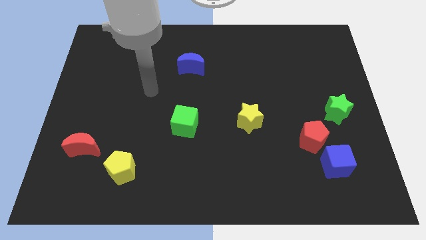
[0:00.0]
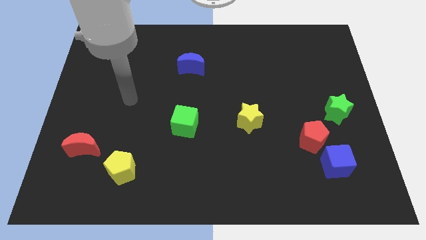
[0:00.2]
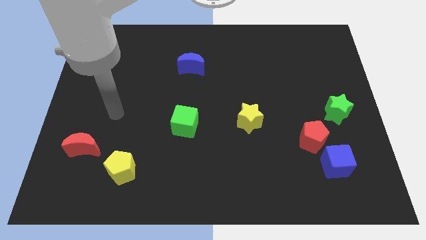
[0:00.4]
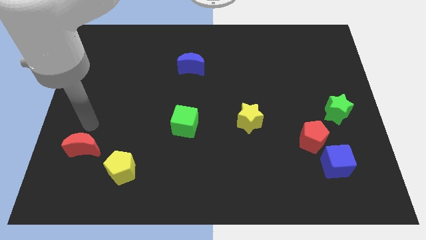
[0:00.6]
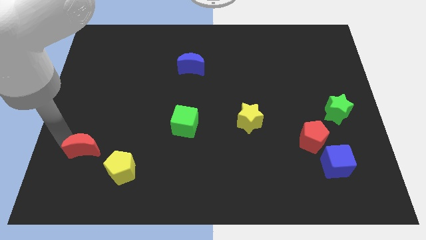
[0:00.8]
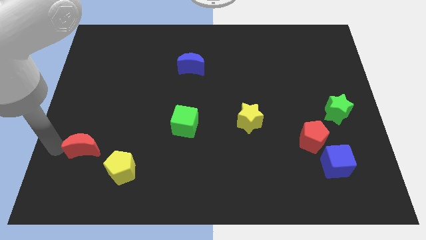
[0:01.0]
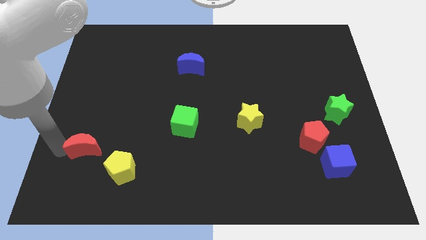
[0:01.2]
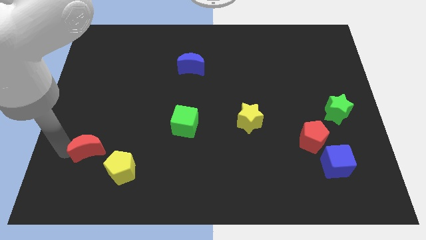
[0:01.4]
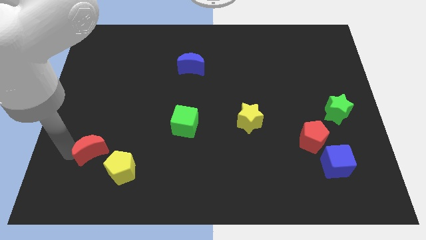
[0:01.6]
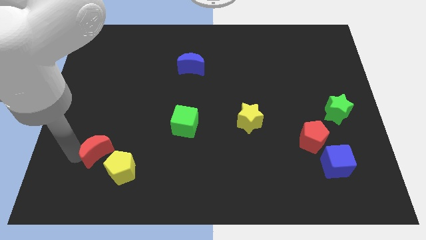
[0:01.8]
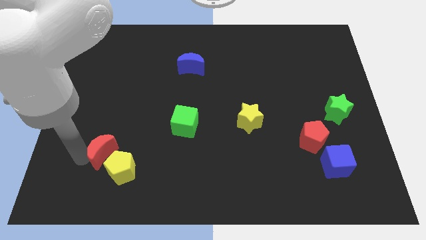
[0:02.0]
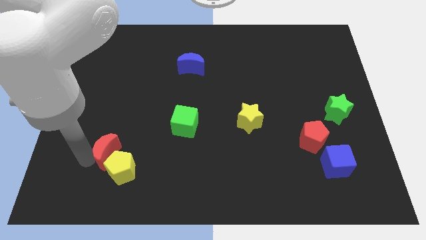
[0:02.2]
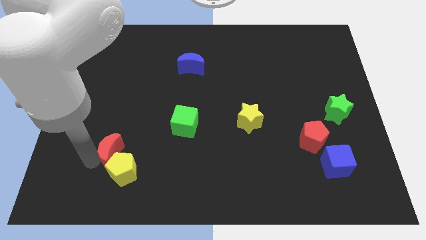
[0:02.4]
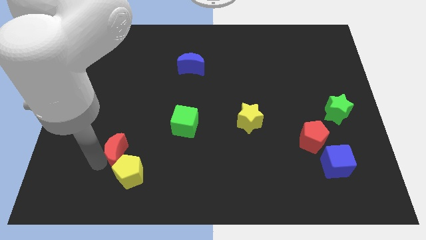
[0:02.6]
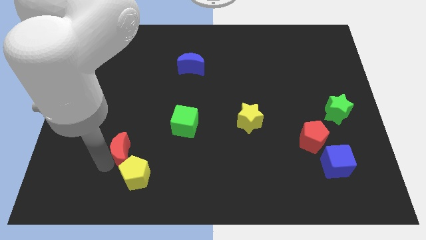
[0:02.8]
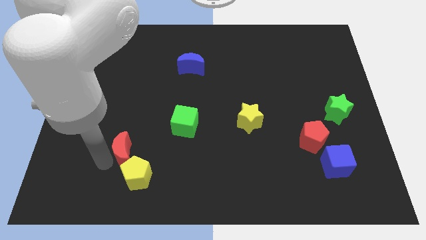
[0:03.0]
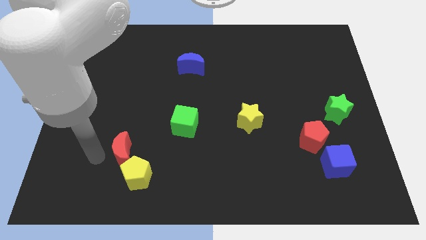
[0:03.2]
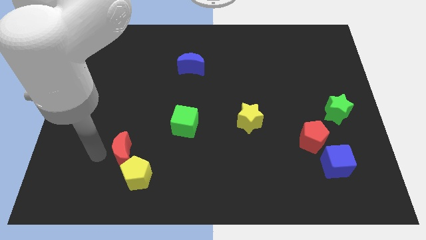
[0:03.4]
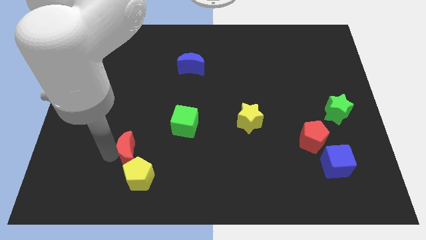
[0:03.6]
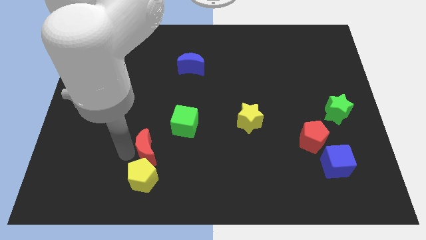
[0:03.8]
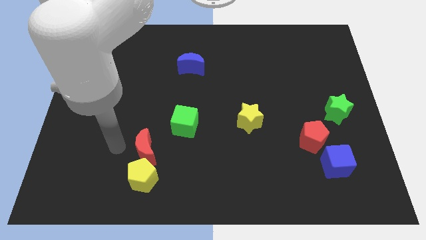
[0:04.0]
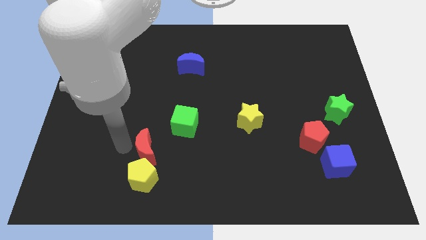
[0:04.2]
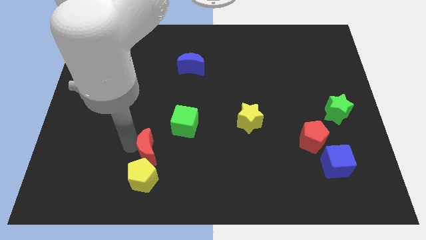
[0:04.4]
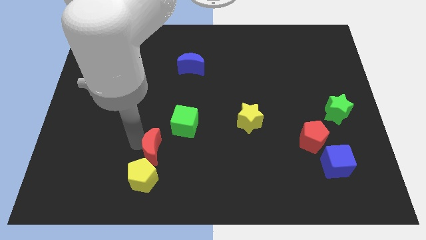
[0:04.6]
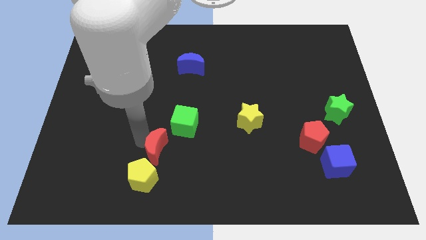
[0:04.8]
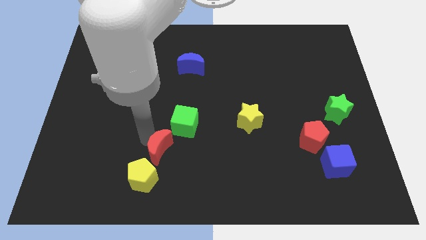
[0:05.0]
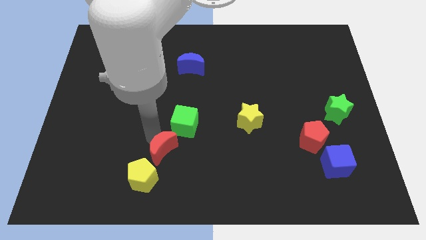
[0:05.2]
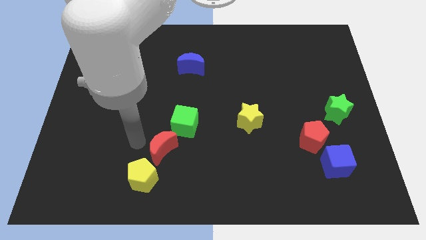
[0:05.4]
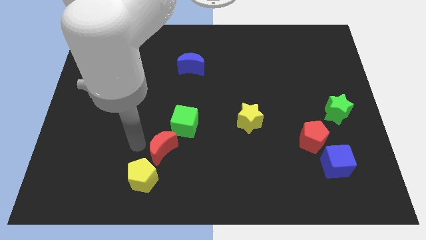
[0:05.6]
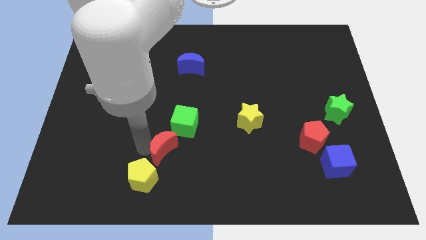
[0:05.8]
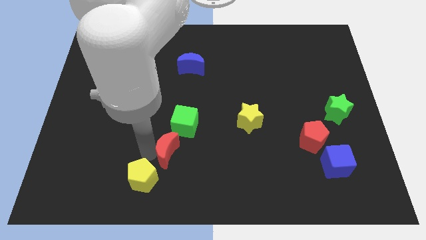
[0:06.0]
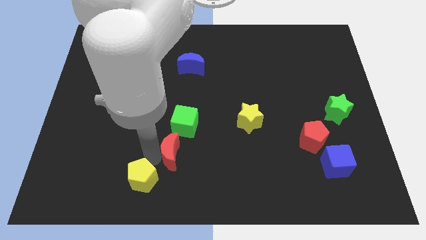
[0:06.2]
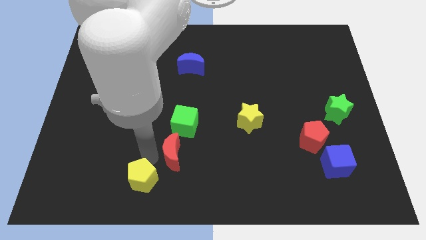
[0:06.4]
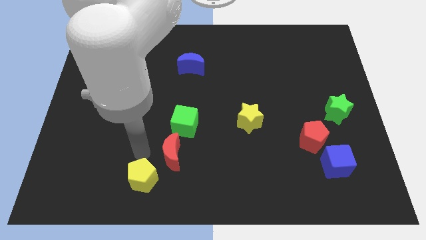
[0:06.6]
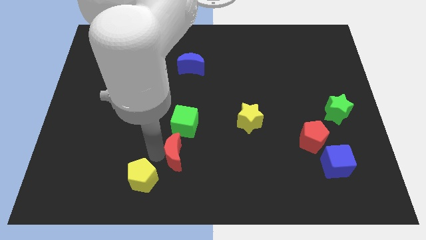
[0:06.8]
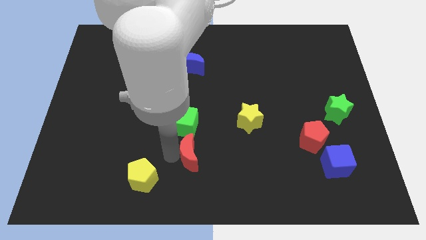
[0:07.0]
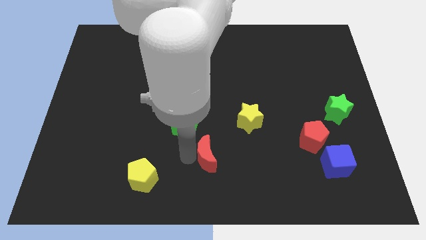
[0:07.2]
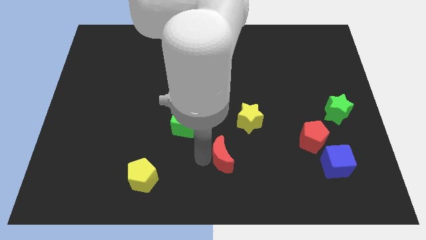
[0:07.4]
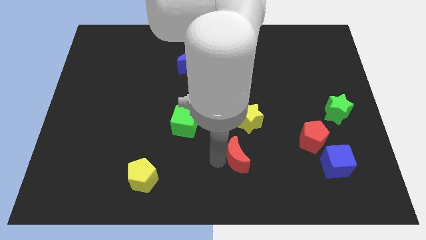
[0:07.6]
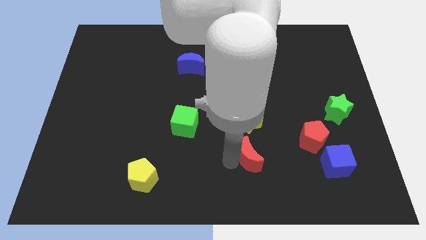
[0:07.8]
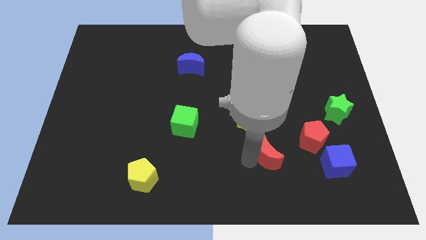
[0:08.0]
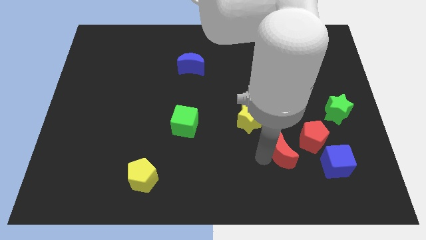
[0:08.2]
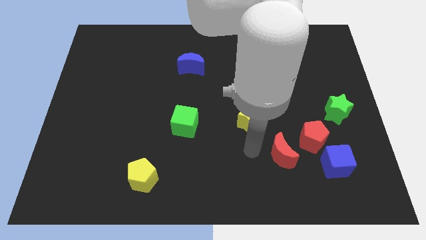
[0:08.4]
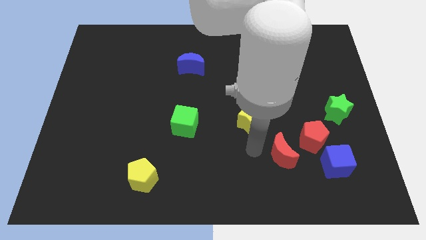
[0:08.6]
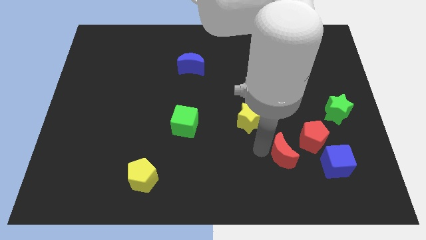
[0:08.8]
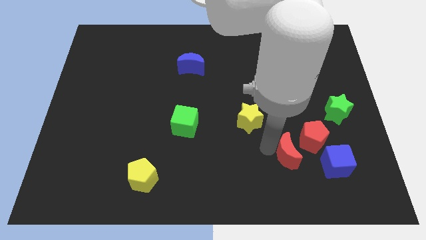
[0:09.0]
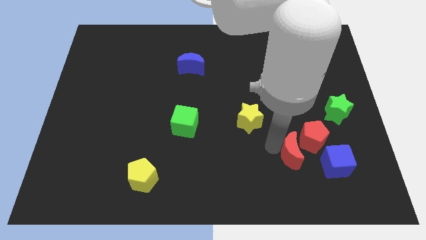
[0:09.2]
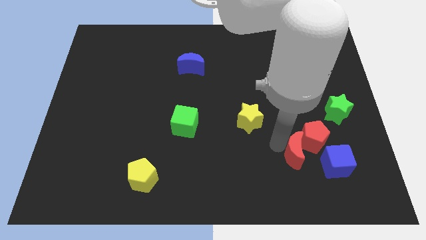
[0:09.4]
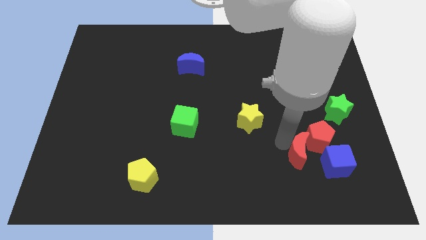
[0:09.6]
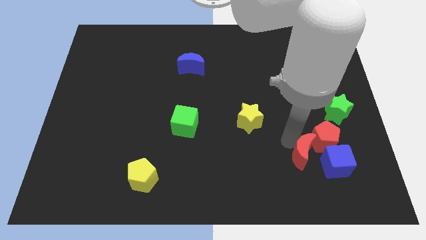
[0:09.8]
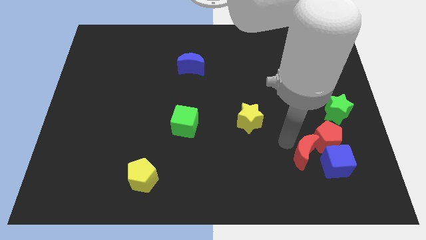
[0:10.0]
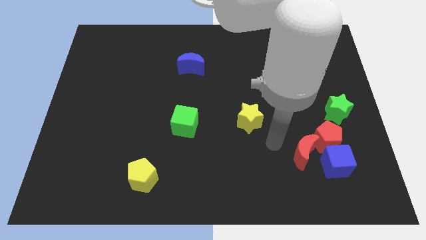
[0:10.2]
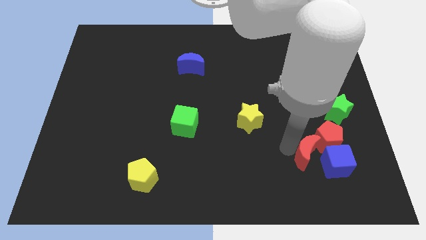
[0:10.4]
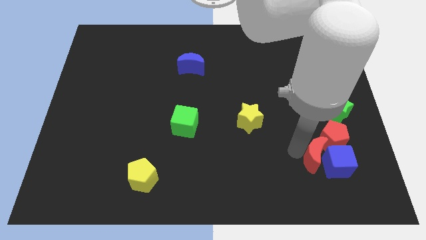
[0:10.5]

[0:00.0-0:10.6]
move the red moon next to the blue cube

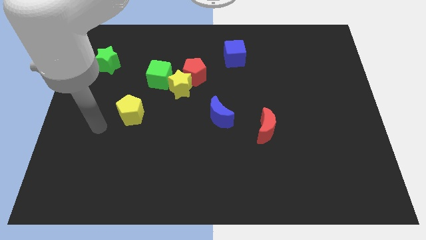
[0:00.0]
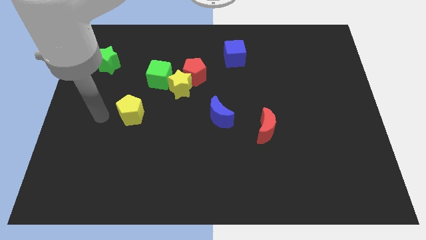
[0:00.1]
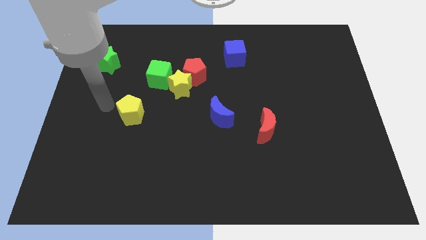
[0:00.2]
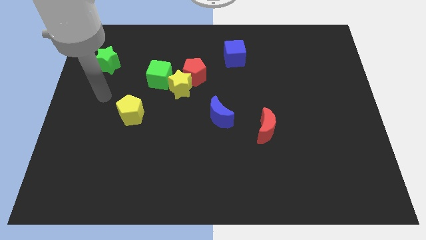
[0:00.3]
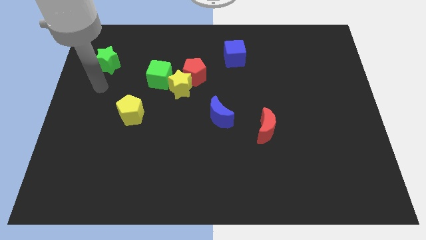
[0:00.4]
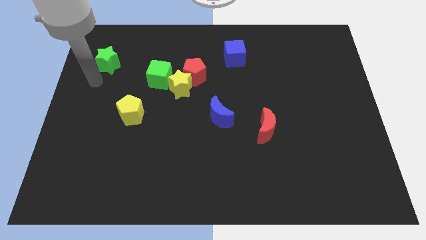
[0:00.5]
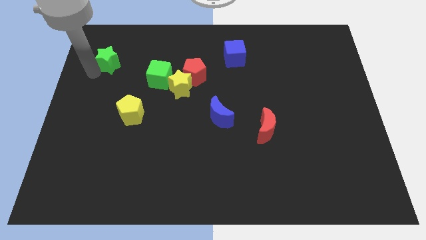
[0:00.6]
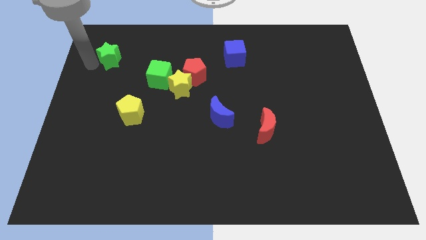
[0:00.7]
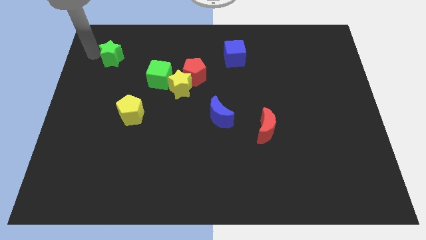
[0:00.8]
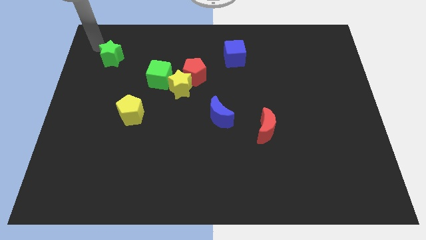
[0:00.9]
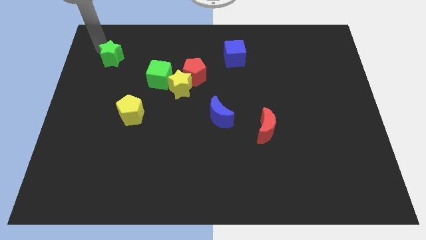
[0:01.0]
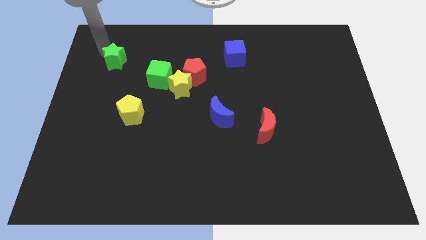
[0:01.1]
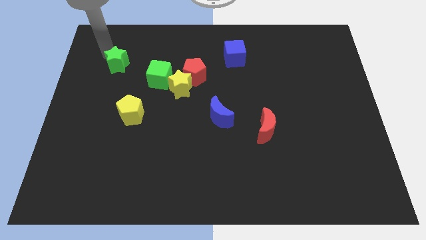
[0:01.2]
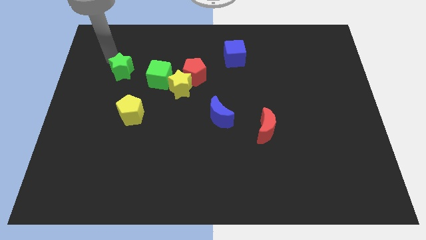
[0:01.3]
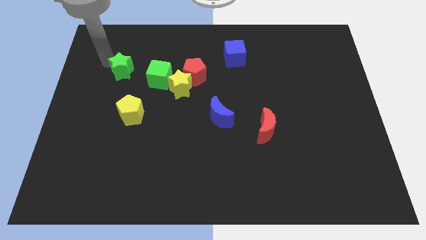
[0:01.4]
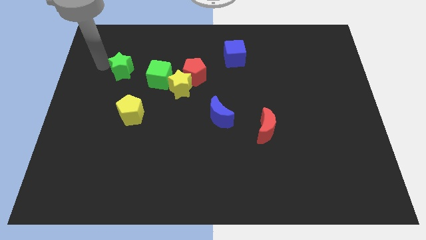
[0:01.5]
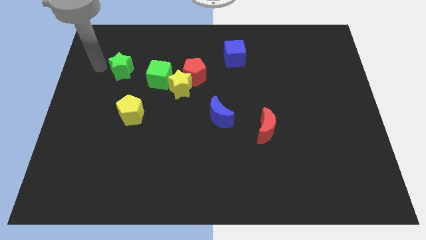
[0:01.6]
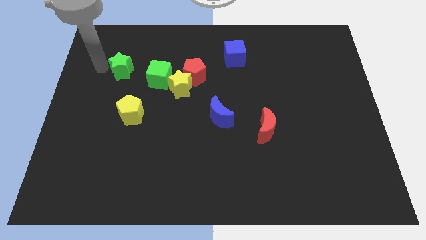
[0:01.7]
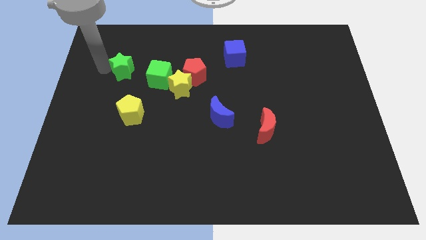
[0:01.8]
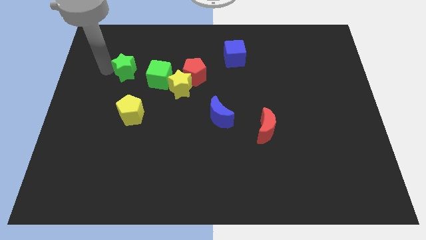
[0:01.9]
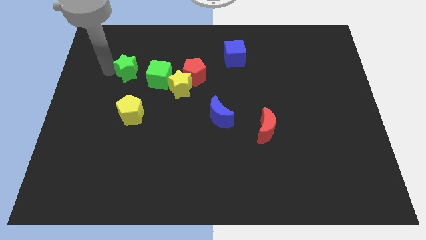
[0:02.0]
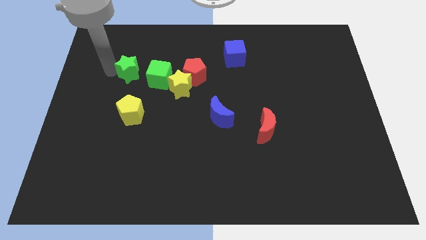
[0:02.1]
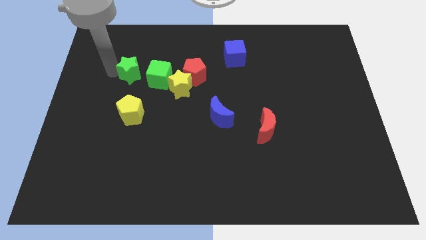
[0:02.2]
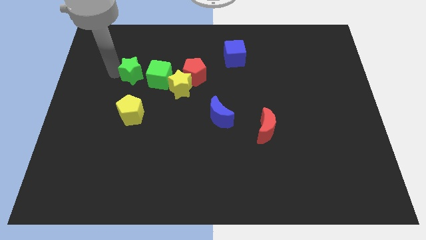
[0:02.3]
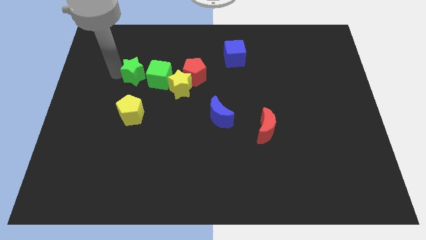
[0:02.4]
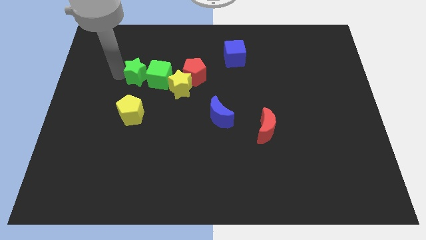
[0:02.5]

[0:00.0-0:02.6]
move the green star next to the green cube
